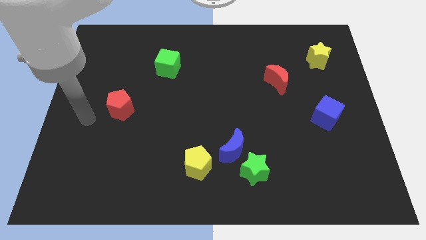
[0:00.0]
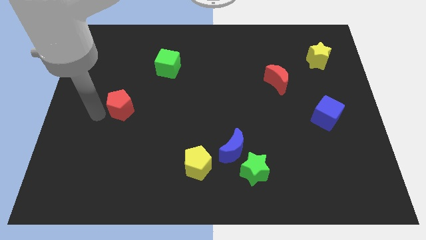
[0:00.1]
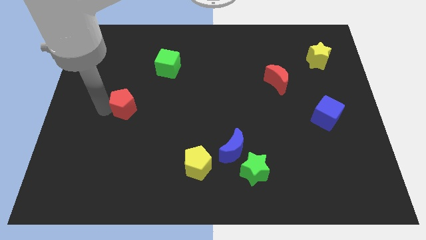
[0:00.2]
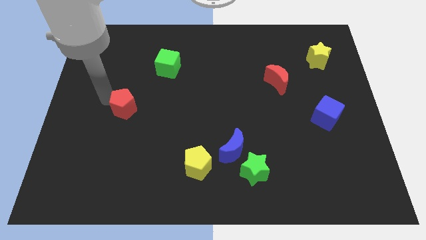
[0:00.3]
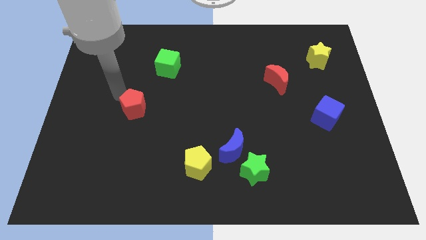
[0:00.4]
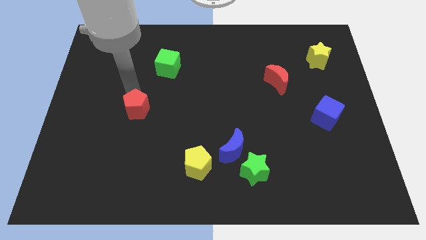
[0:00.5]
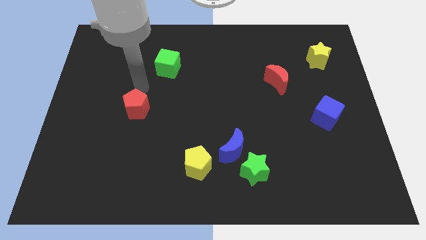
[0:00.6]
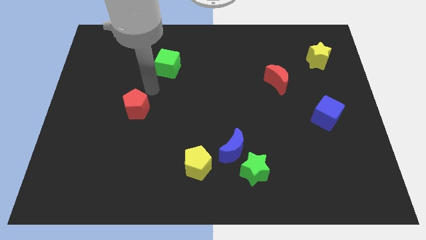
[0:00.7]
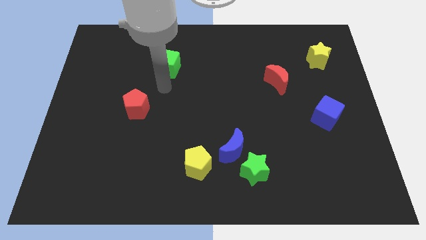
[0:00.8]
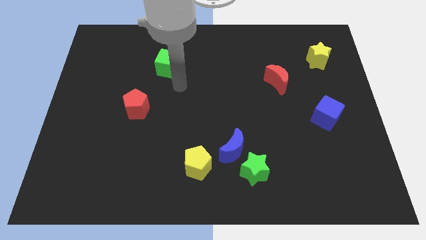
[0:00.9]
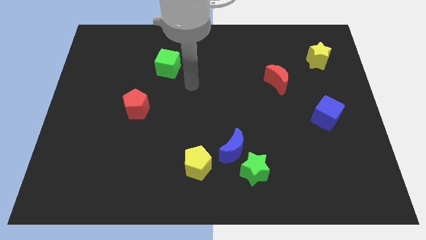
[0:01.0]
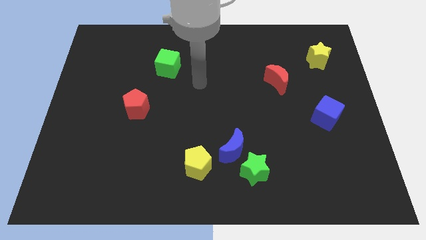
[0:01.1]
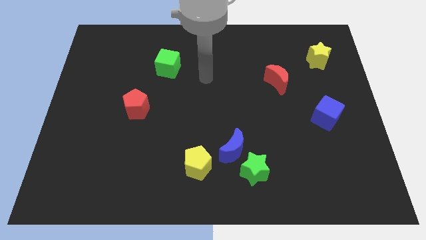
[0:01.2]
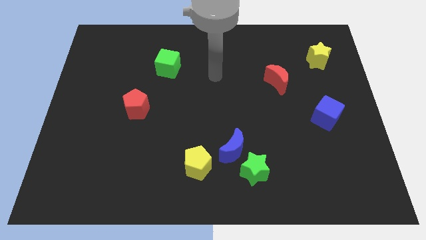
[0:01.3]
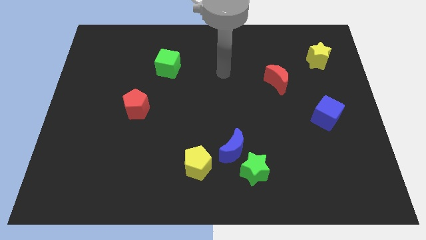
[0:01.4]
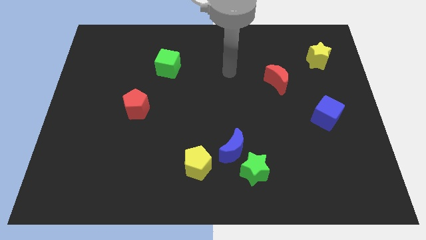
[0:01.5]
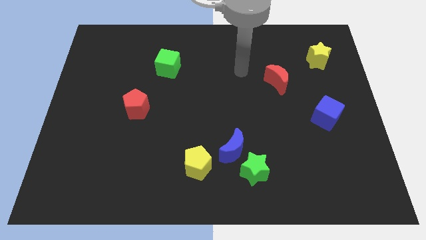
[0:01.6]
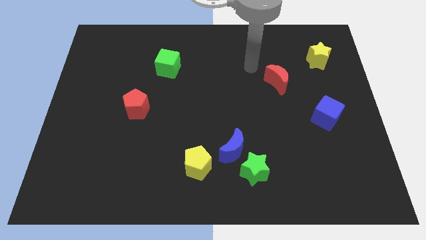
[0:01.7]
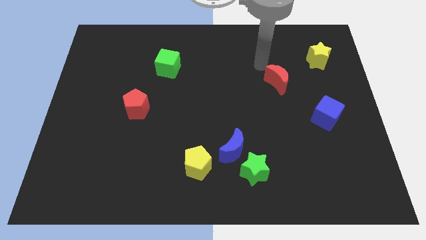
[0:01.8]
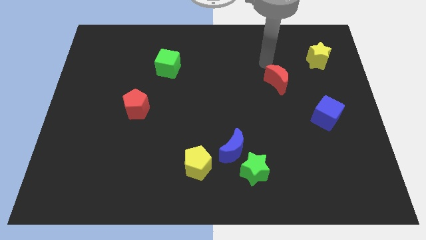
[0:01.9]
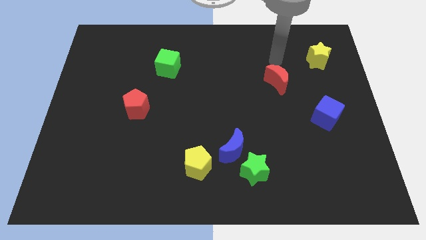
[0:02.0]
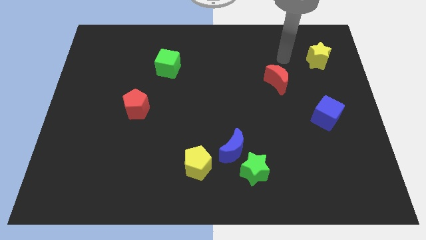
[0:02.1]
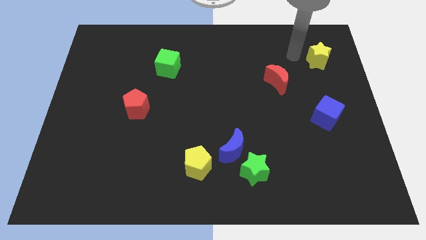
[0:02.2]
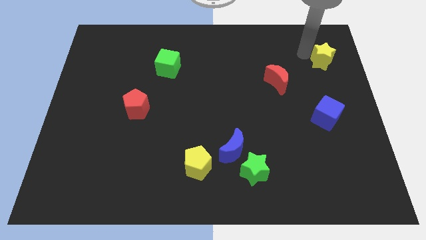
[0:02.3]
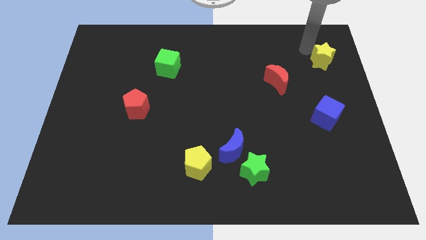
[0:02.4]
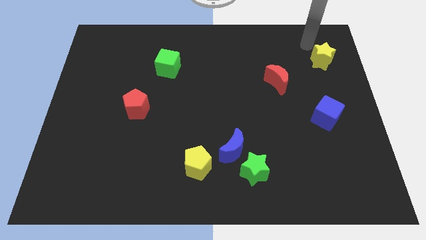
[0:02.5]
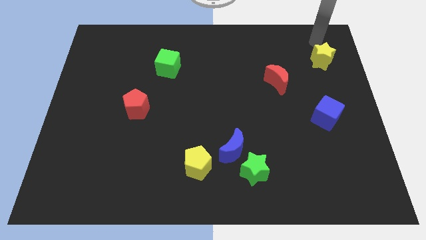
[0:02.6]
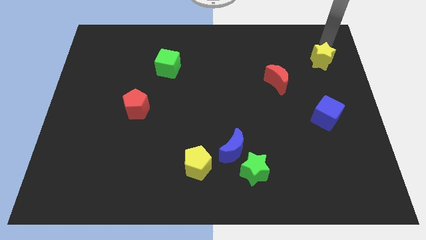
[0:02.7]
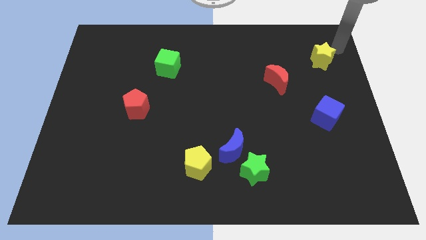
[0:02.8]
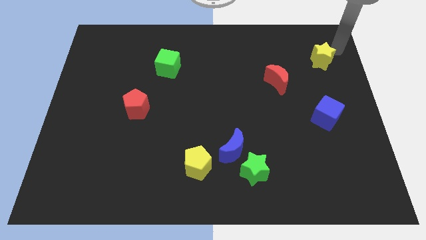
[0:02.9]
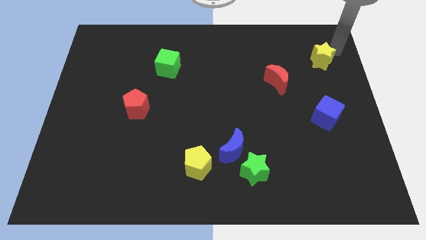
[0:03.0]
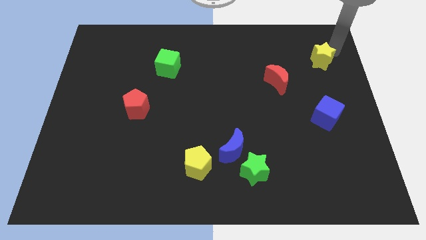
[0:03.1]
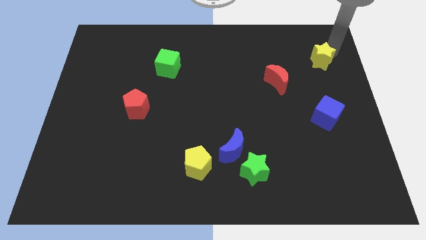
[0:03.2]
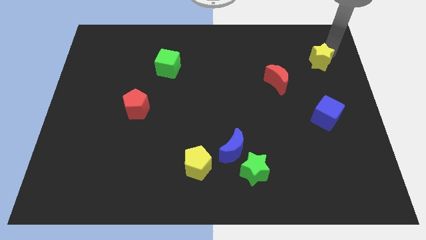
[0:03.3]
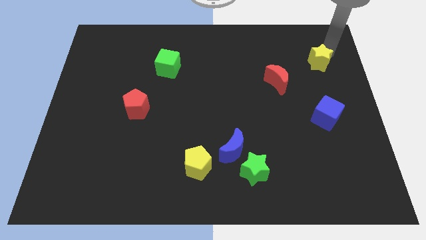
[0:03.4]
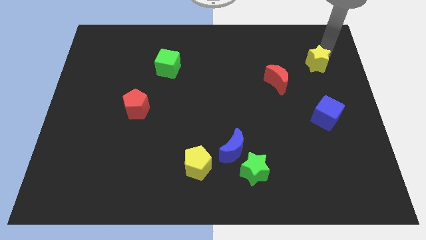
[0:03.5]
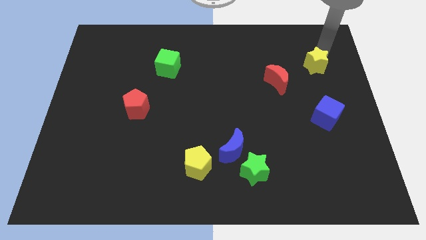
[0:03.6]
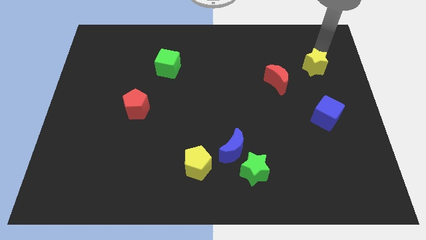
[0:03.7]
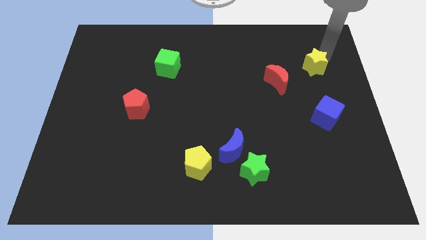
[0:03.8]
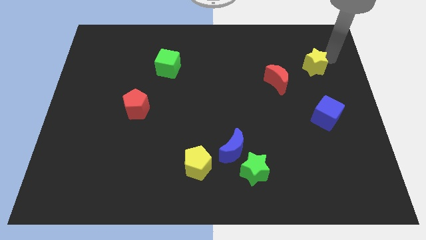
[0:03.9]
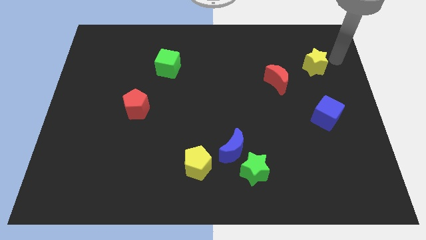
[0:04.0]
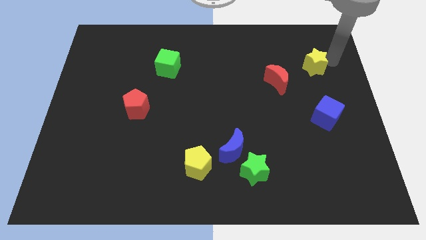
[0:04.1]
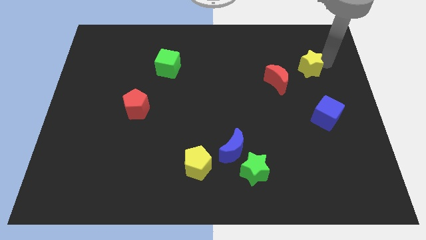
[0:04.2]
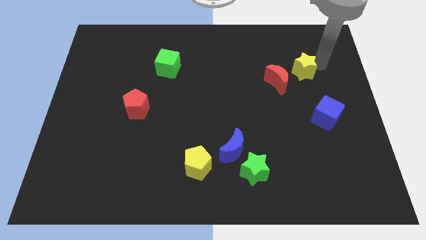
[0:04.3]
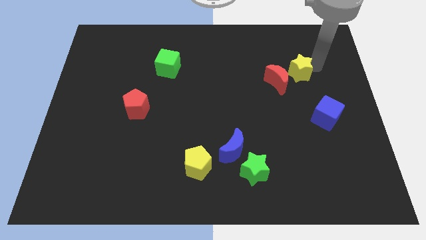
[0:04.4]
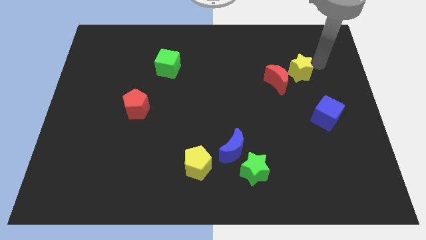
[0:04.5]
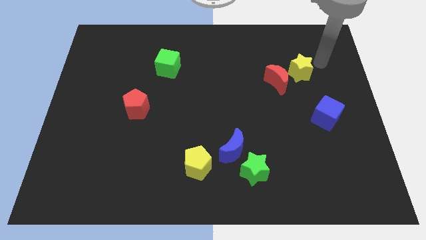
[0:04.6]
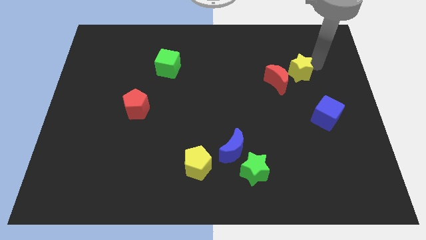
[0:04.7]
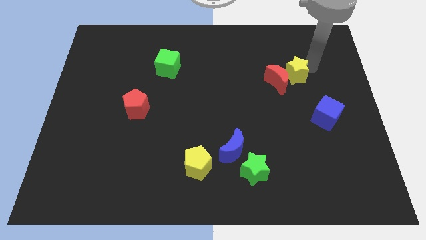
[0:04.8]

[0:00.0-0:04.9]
put the yellow star next to the red moon

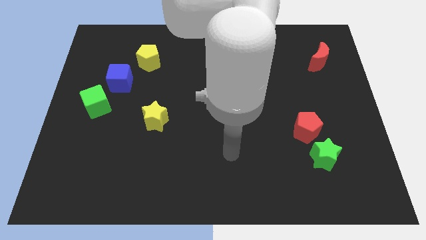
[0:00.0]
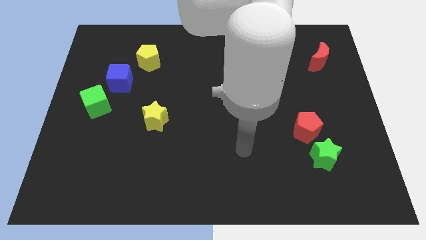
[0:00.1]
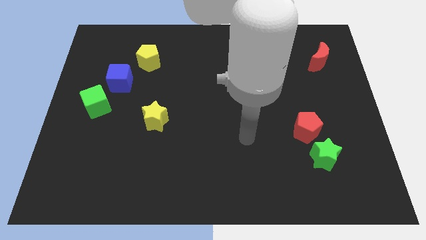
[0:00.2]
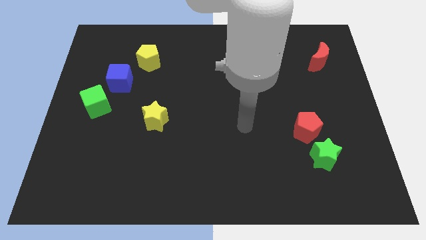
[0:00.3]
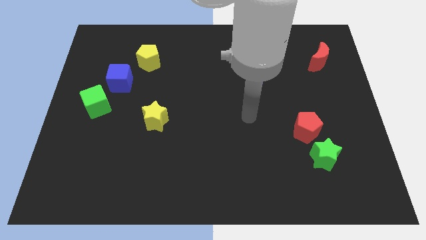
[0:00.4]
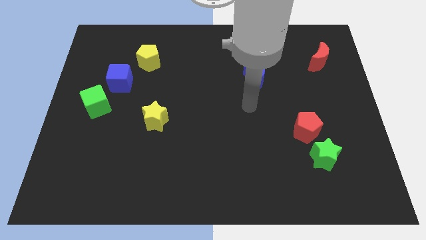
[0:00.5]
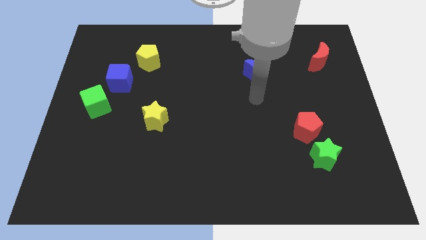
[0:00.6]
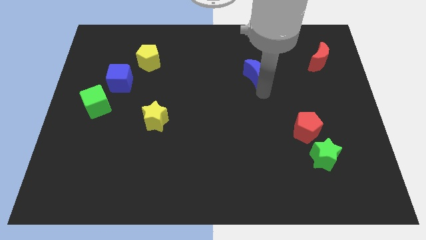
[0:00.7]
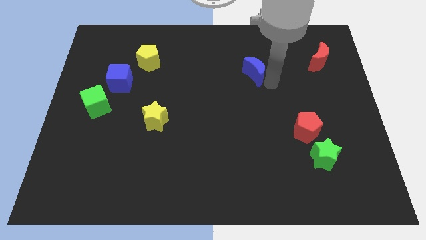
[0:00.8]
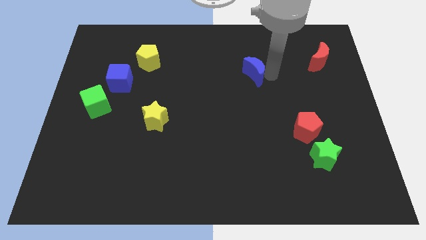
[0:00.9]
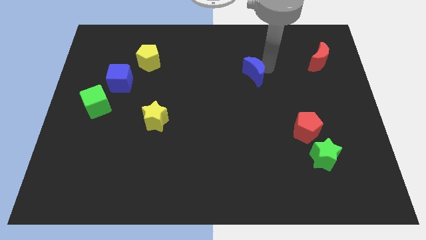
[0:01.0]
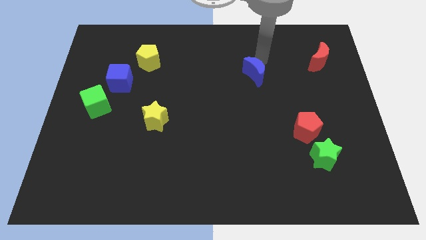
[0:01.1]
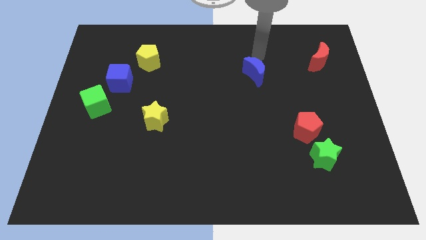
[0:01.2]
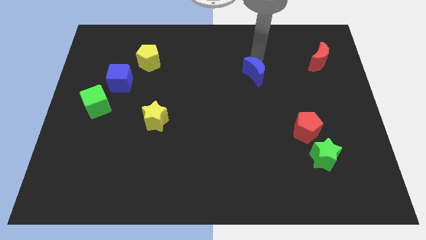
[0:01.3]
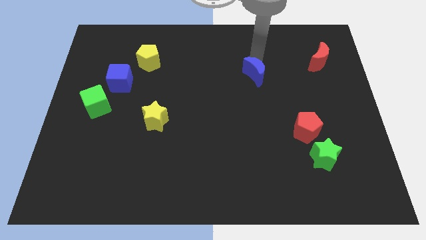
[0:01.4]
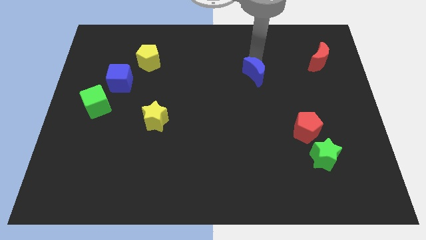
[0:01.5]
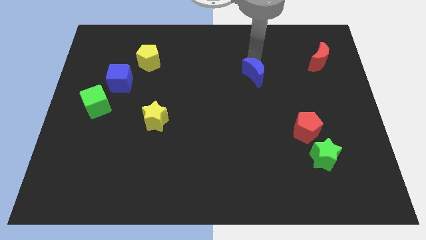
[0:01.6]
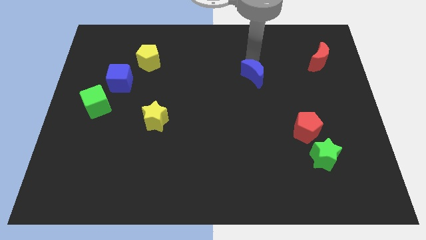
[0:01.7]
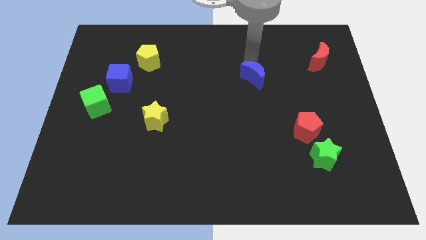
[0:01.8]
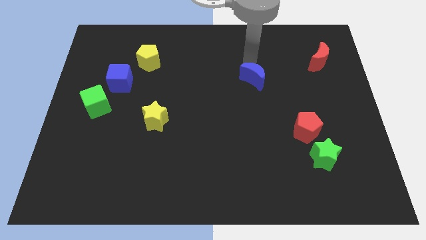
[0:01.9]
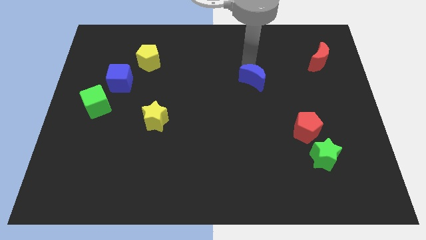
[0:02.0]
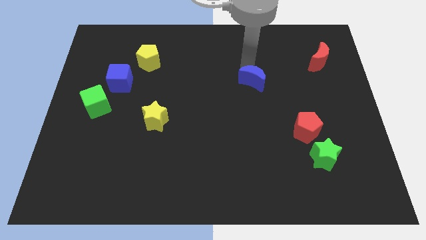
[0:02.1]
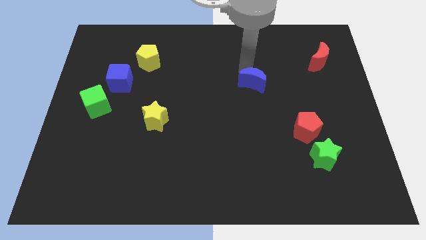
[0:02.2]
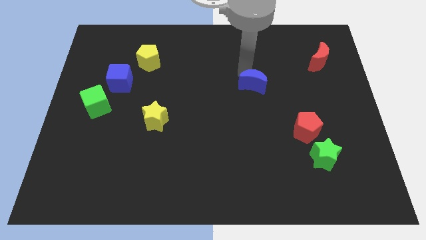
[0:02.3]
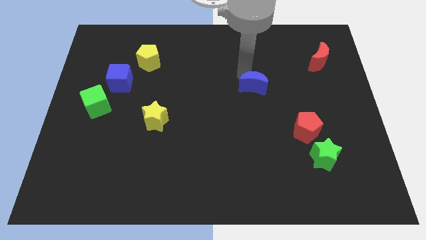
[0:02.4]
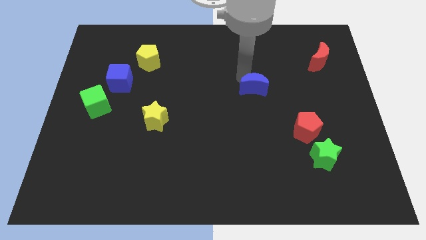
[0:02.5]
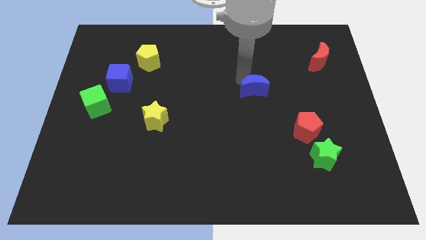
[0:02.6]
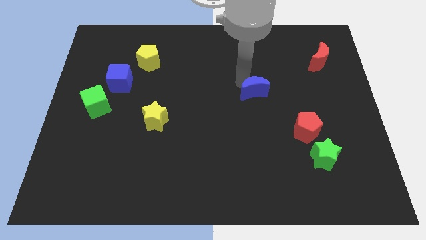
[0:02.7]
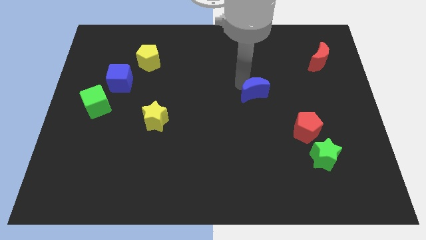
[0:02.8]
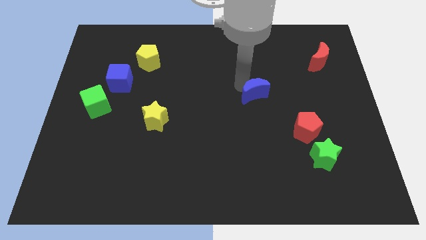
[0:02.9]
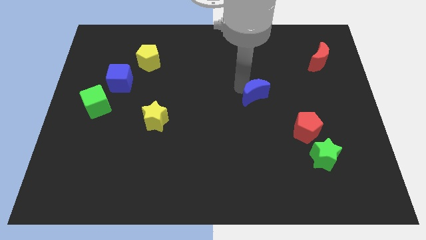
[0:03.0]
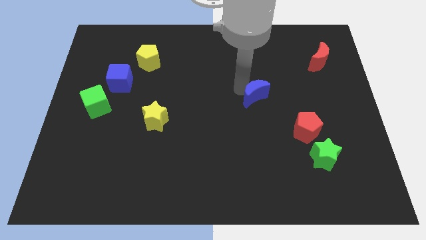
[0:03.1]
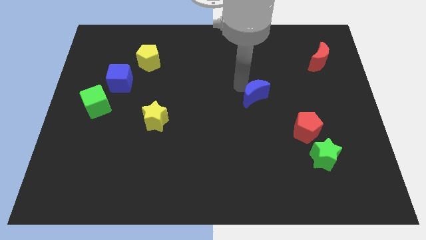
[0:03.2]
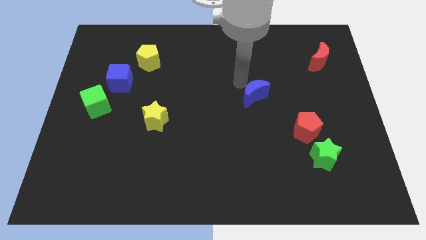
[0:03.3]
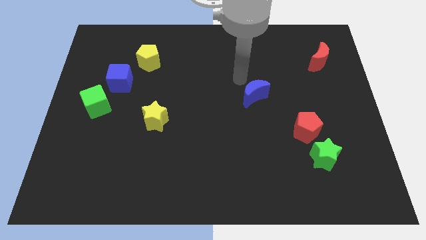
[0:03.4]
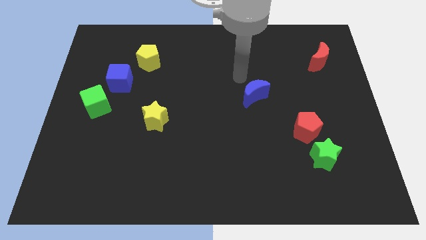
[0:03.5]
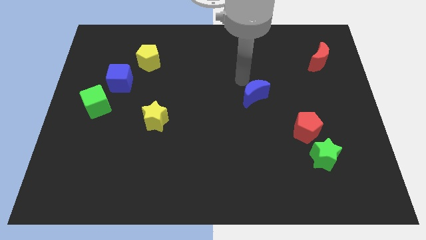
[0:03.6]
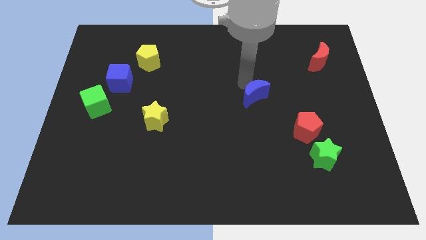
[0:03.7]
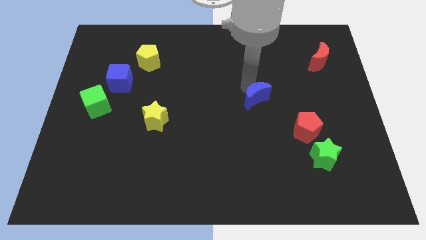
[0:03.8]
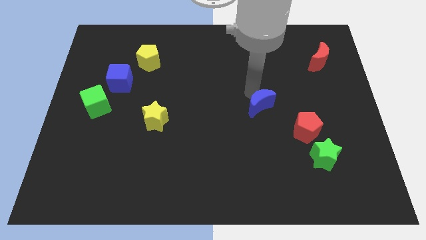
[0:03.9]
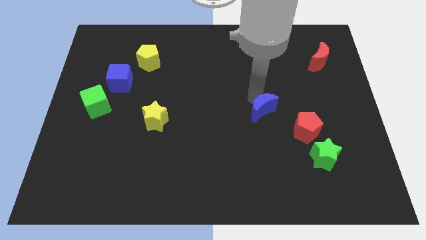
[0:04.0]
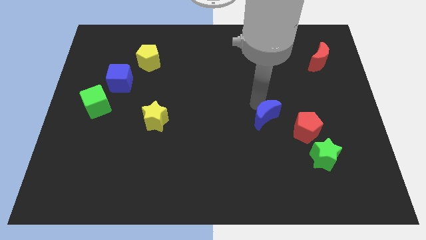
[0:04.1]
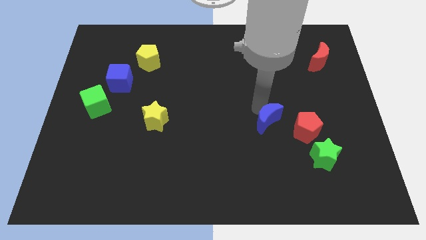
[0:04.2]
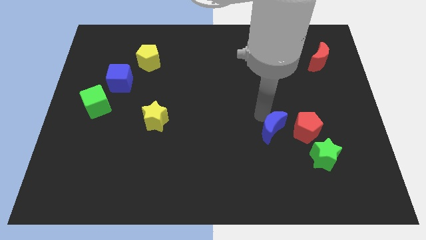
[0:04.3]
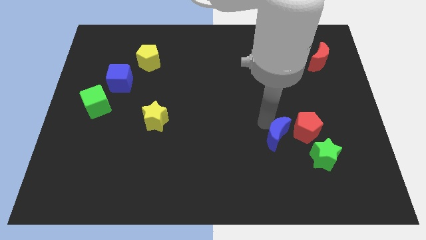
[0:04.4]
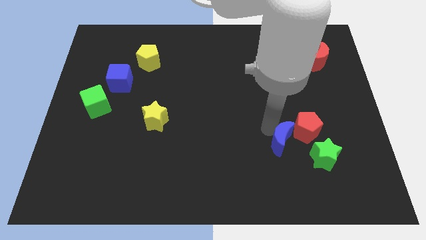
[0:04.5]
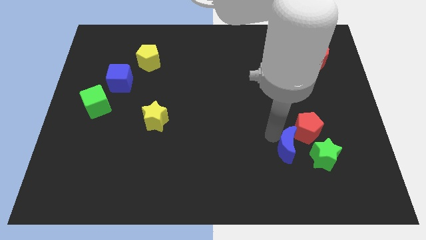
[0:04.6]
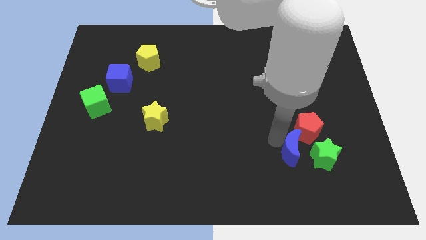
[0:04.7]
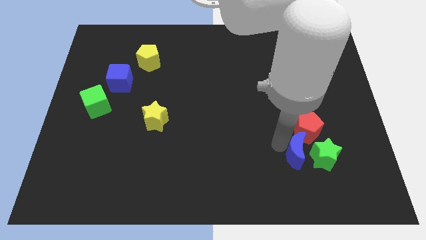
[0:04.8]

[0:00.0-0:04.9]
slide the blue moon close to the green star
